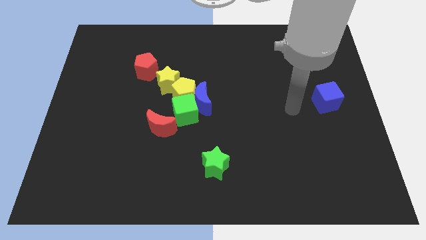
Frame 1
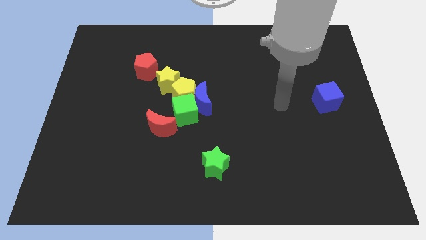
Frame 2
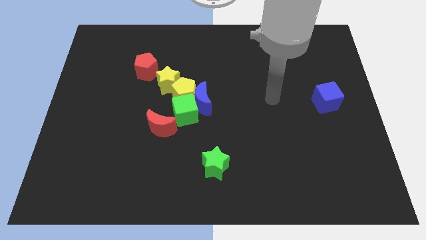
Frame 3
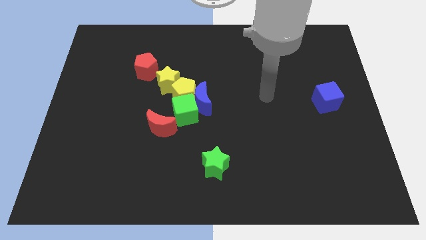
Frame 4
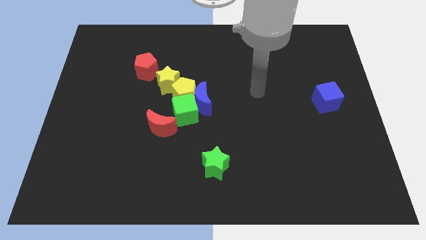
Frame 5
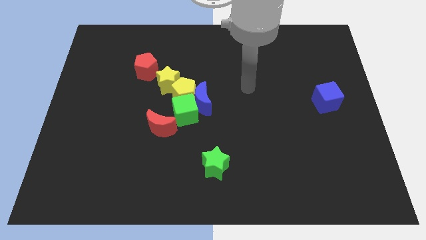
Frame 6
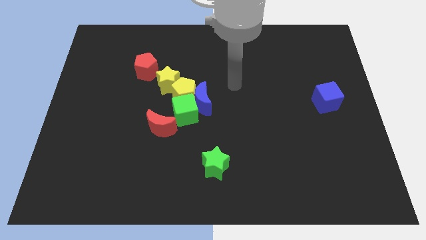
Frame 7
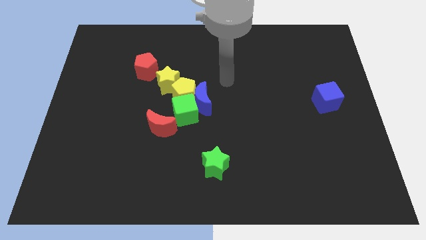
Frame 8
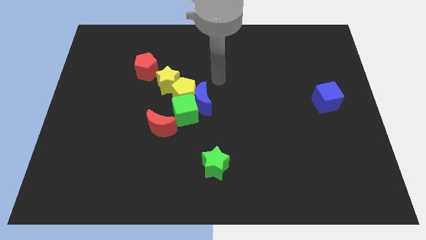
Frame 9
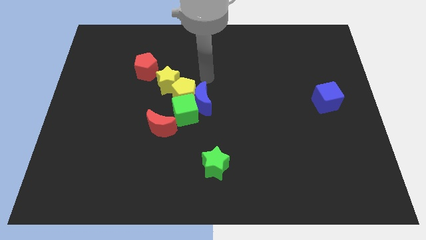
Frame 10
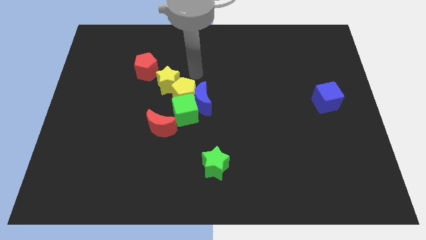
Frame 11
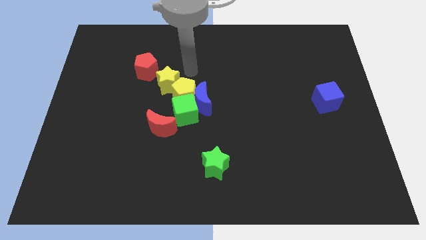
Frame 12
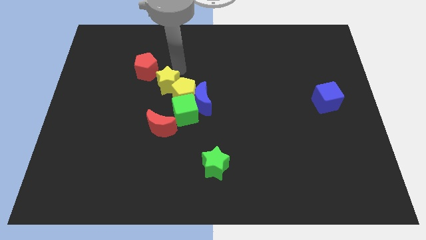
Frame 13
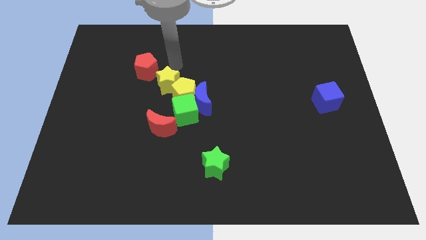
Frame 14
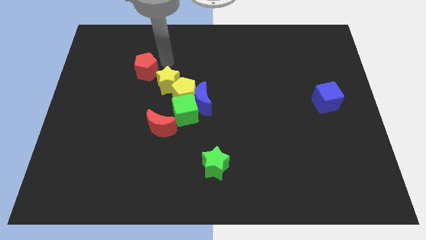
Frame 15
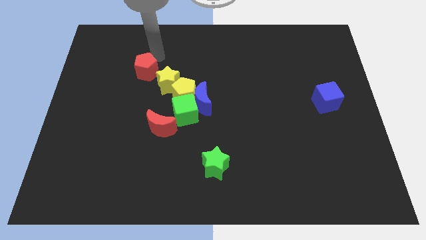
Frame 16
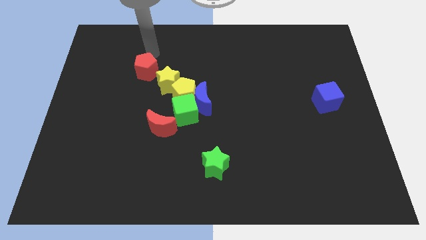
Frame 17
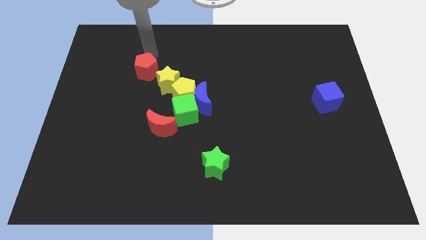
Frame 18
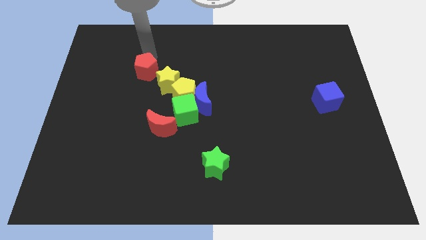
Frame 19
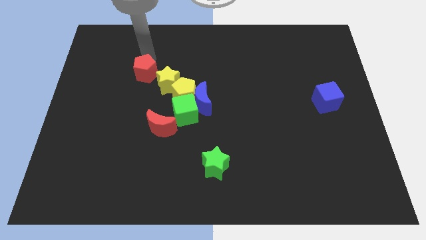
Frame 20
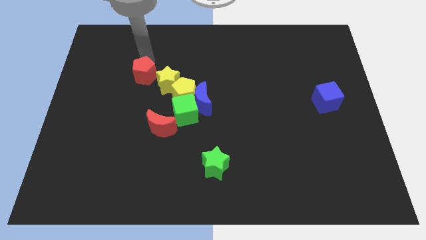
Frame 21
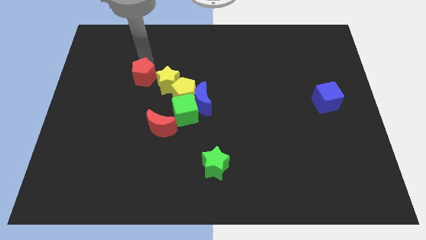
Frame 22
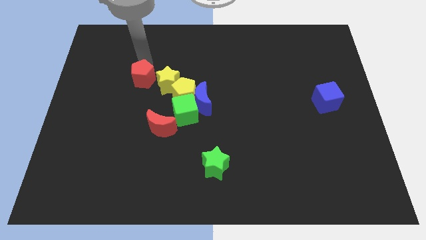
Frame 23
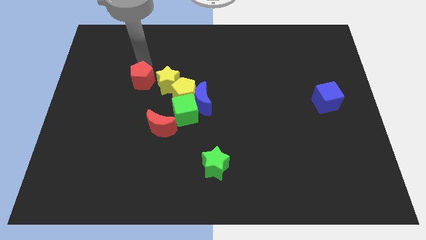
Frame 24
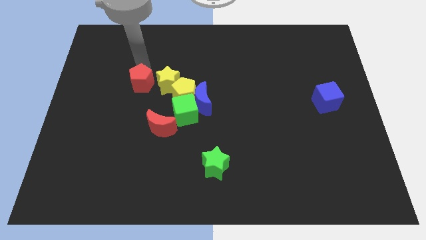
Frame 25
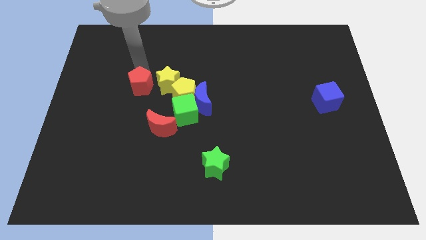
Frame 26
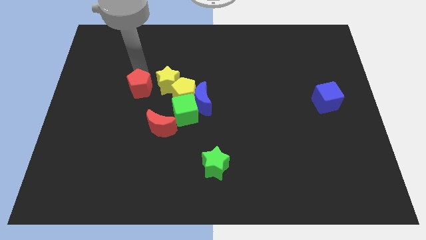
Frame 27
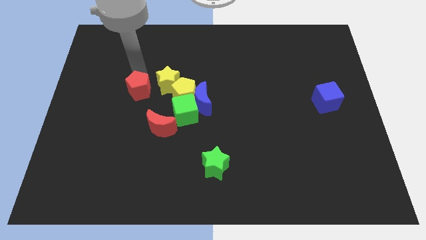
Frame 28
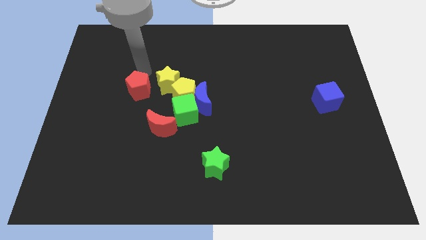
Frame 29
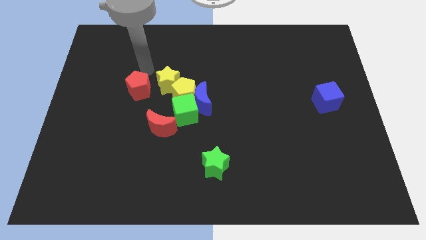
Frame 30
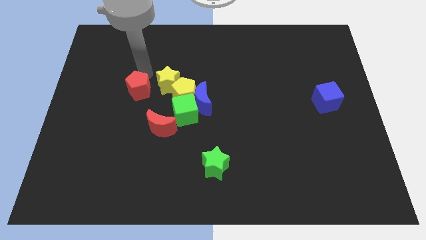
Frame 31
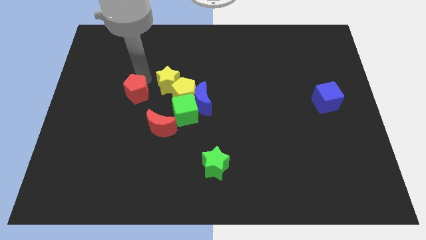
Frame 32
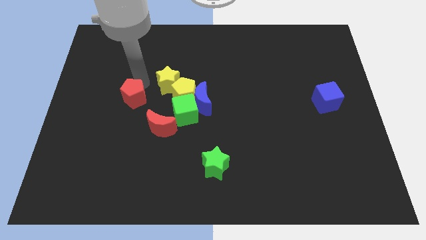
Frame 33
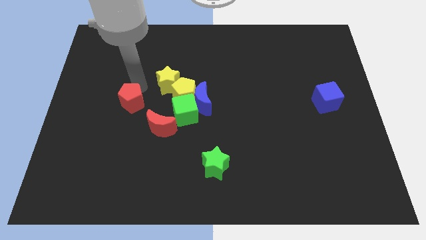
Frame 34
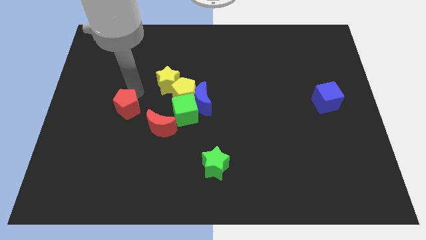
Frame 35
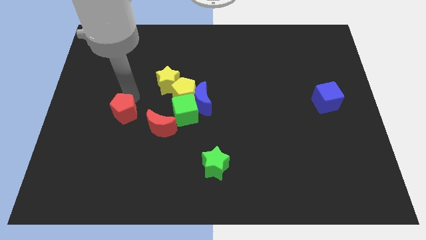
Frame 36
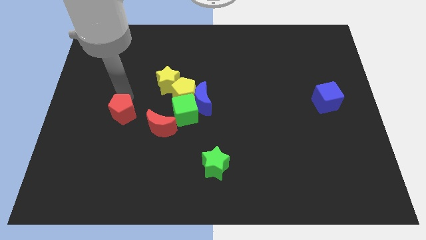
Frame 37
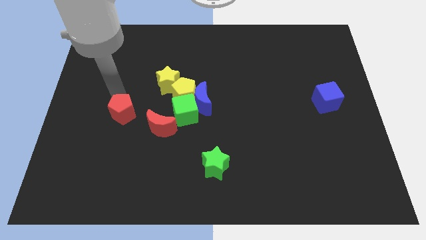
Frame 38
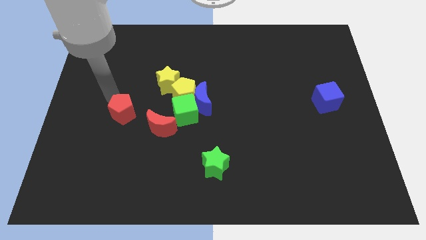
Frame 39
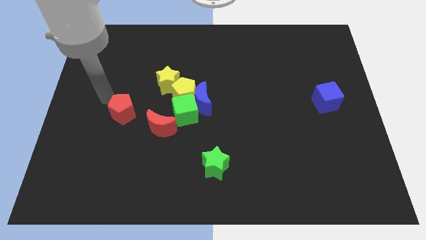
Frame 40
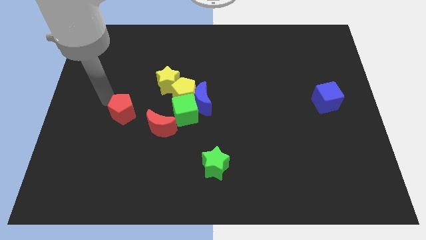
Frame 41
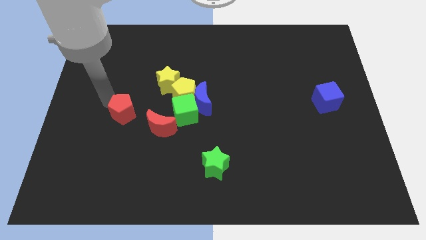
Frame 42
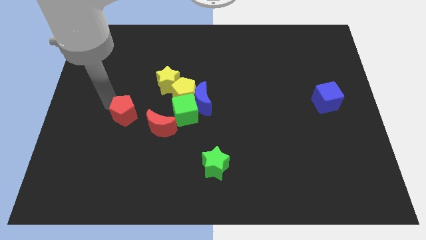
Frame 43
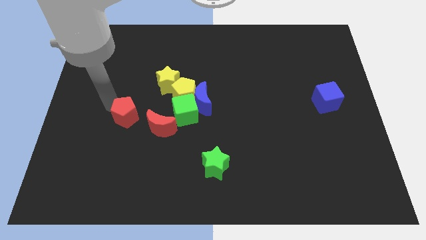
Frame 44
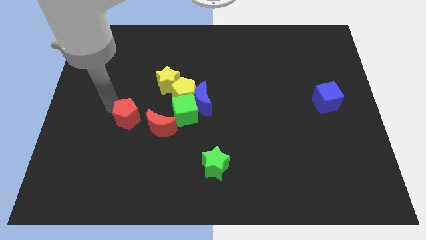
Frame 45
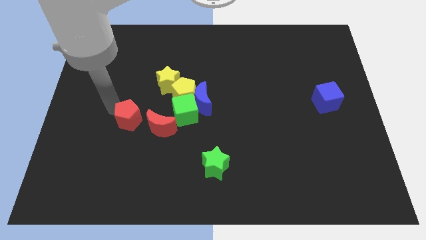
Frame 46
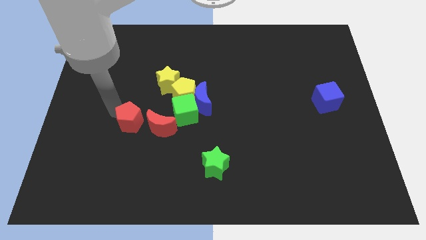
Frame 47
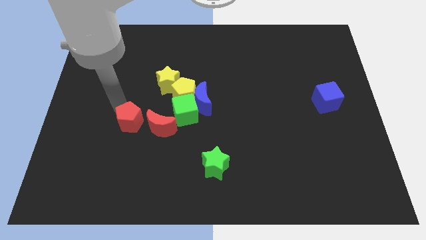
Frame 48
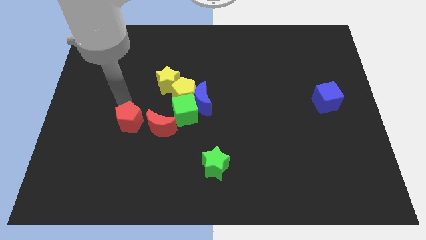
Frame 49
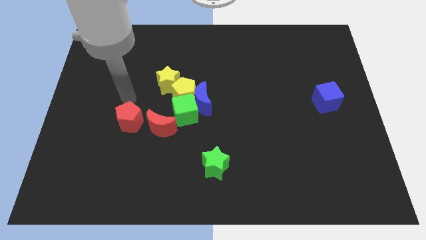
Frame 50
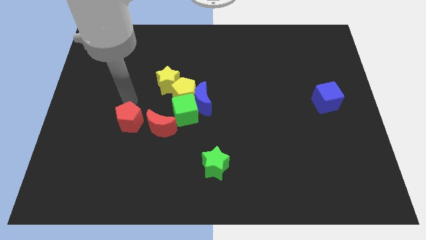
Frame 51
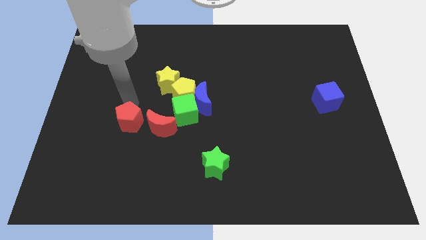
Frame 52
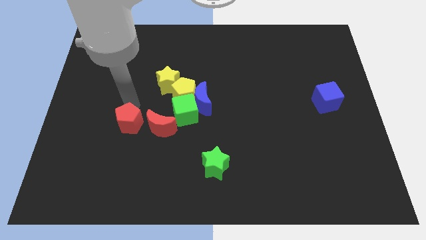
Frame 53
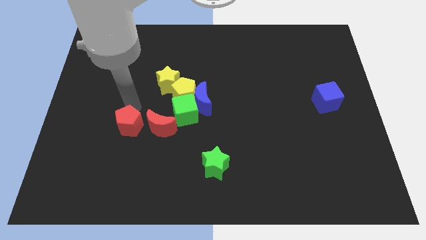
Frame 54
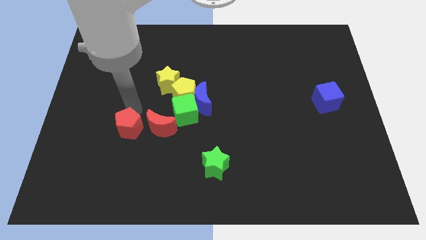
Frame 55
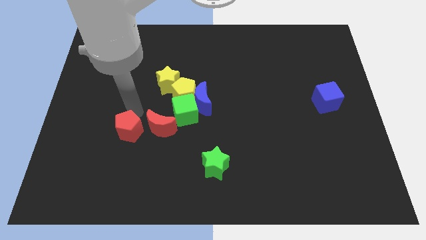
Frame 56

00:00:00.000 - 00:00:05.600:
push the red pentagon to the bottom left of the red moon
